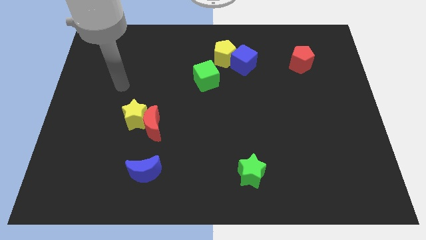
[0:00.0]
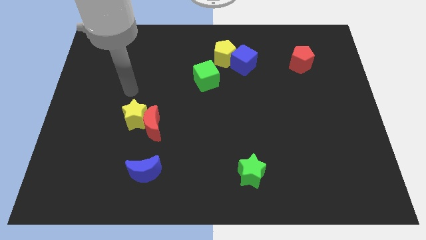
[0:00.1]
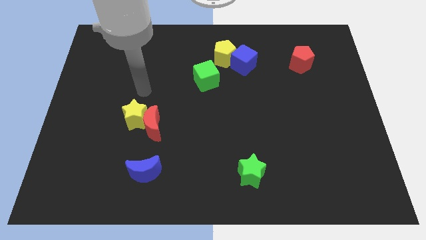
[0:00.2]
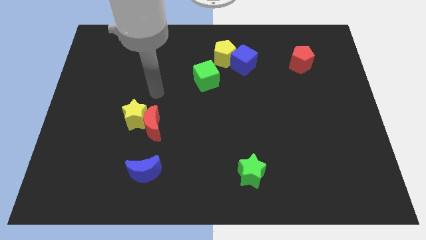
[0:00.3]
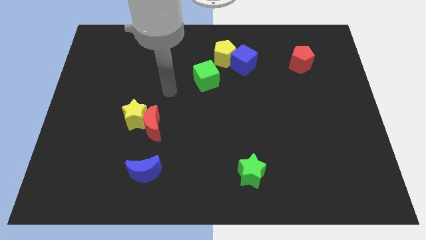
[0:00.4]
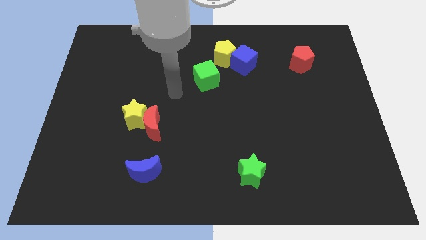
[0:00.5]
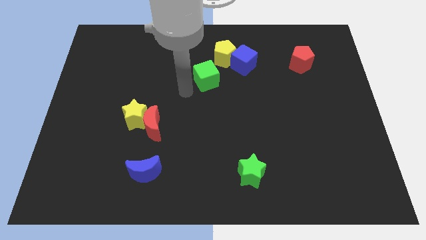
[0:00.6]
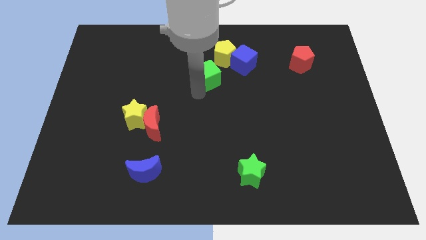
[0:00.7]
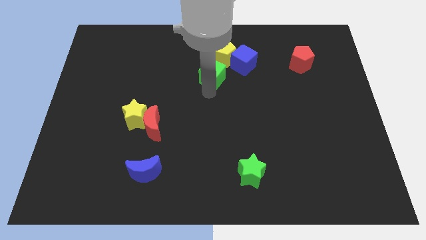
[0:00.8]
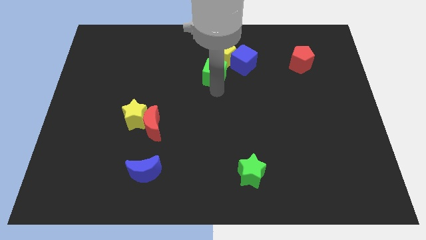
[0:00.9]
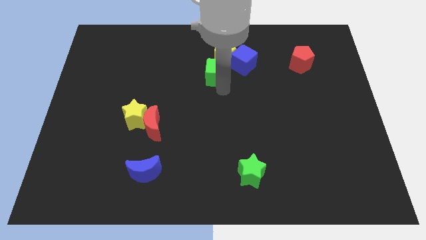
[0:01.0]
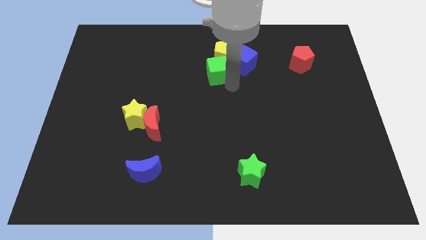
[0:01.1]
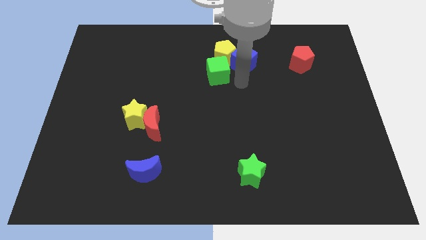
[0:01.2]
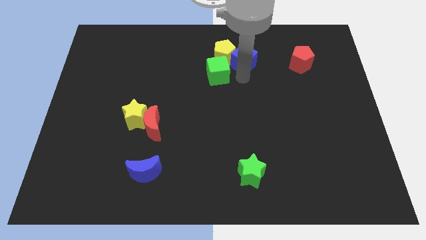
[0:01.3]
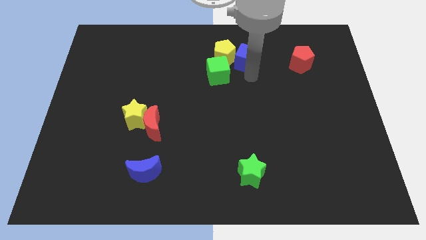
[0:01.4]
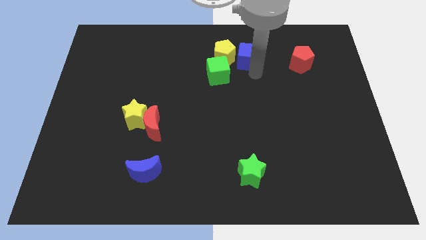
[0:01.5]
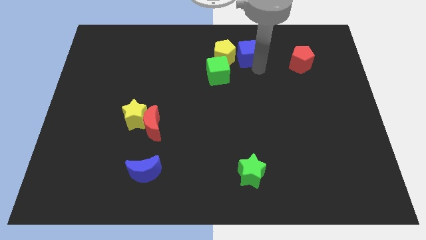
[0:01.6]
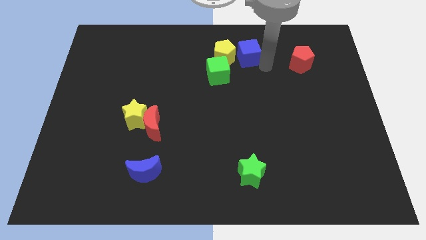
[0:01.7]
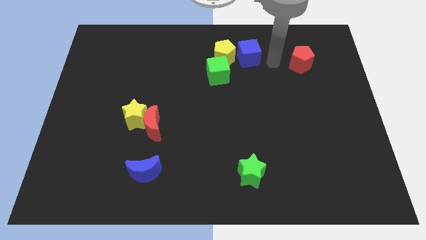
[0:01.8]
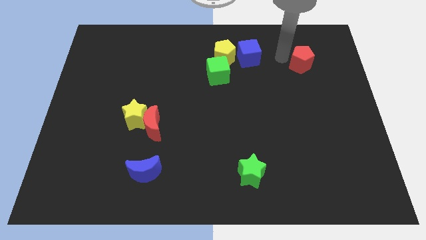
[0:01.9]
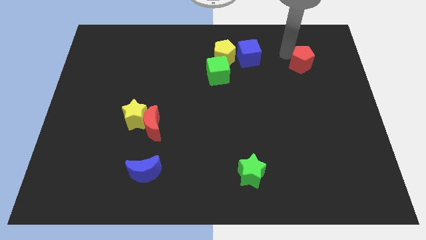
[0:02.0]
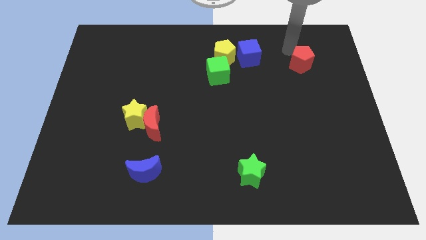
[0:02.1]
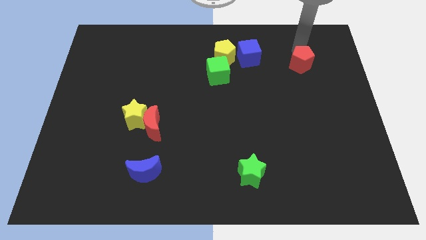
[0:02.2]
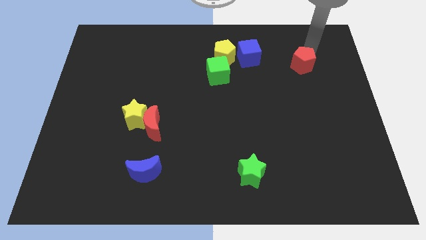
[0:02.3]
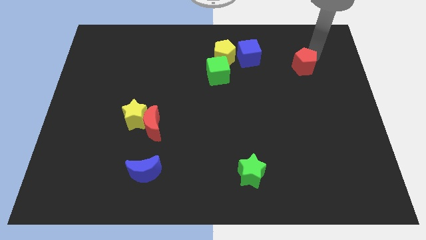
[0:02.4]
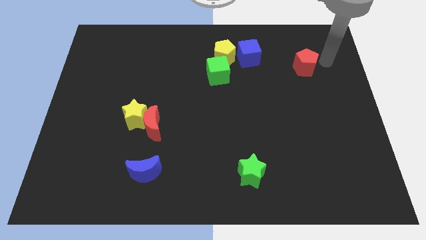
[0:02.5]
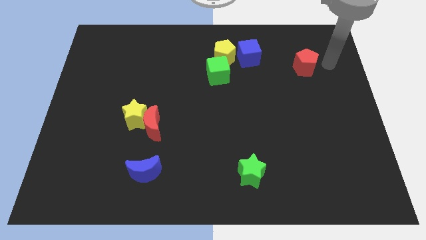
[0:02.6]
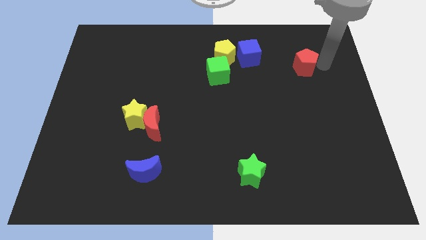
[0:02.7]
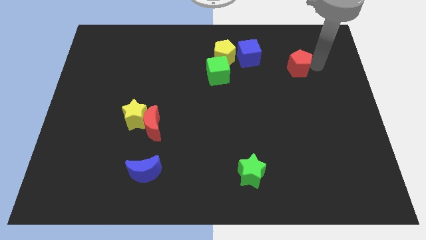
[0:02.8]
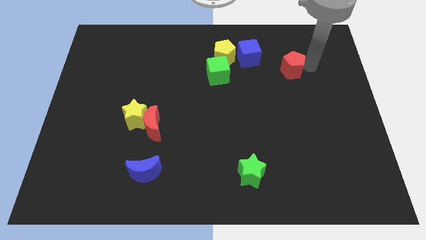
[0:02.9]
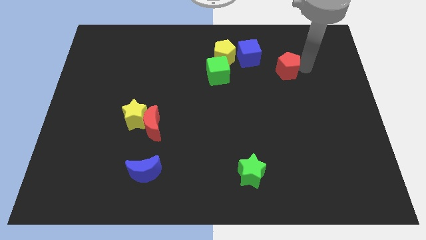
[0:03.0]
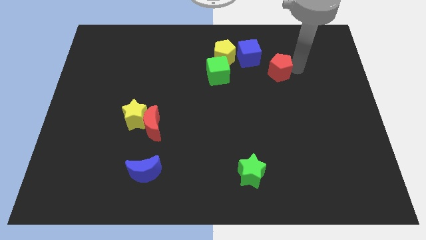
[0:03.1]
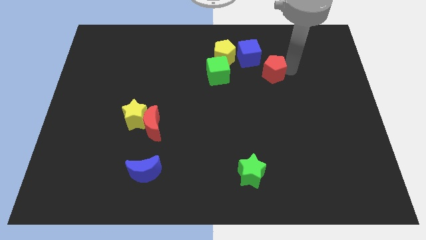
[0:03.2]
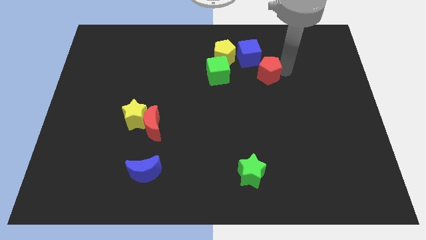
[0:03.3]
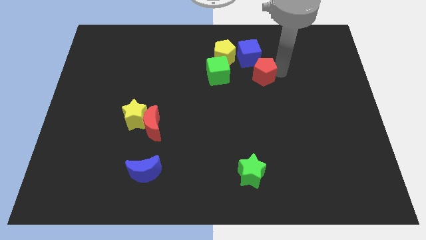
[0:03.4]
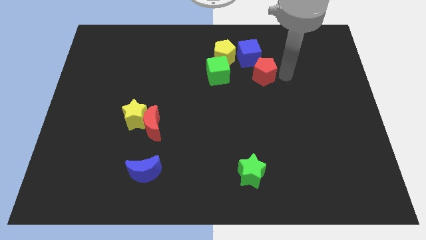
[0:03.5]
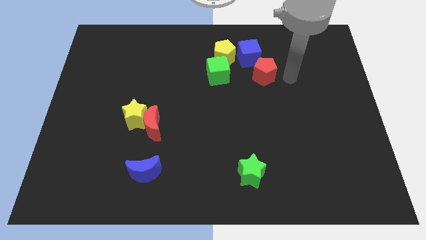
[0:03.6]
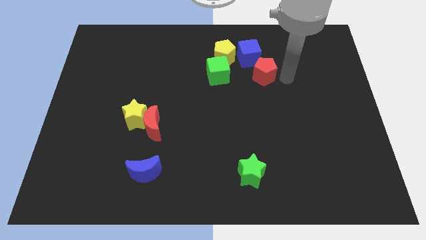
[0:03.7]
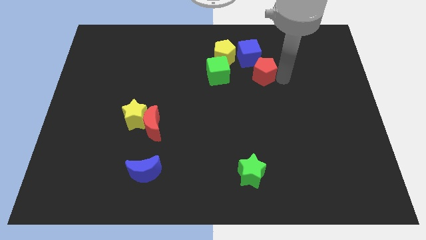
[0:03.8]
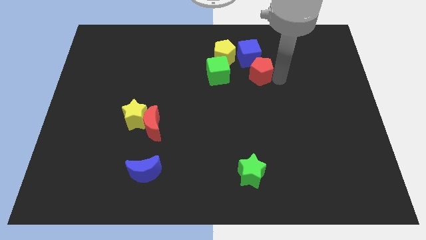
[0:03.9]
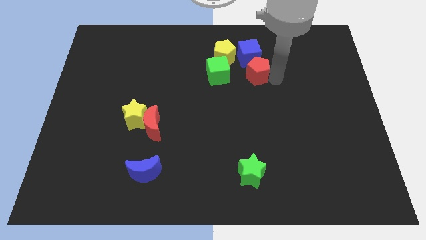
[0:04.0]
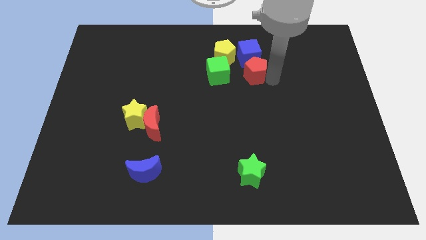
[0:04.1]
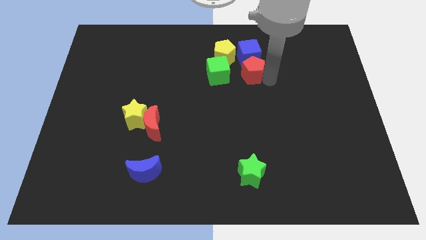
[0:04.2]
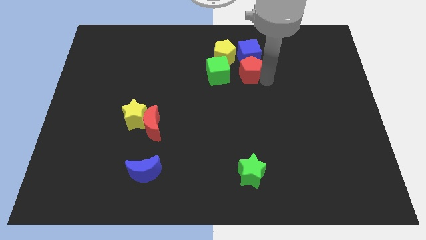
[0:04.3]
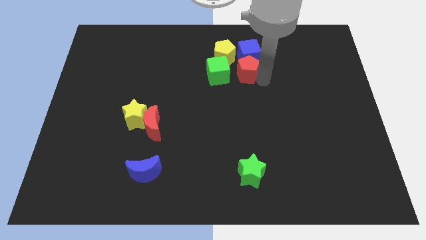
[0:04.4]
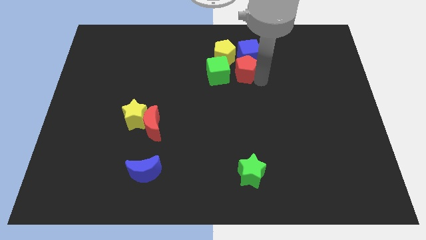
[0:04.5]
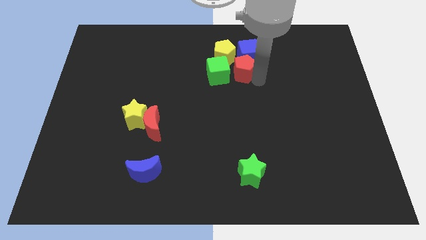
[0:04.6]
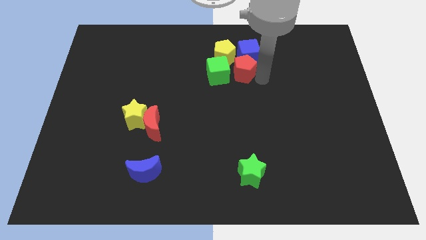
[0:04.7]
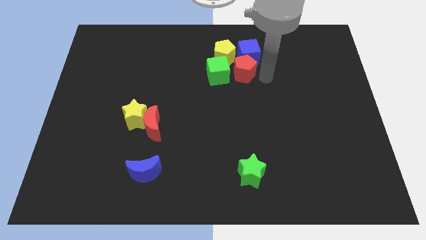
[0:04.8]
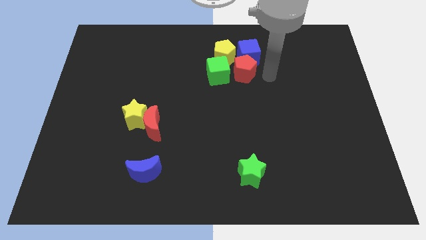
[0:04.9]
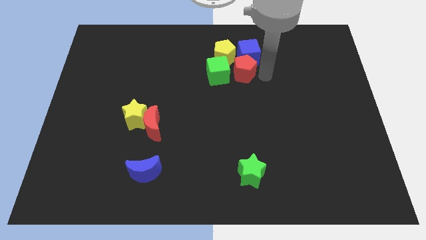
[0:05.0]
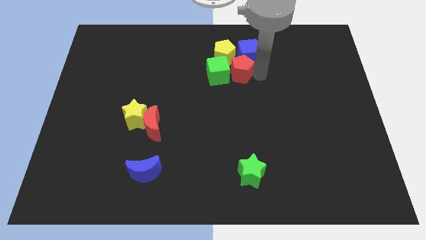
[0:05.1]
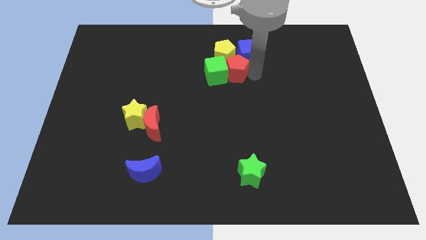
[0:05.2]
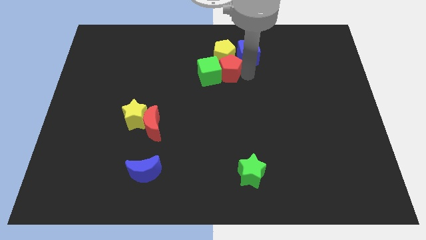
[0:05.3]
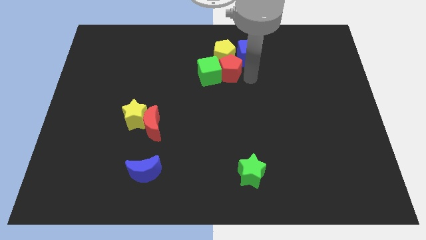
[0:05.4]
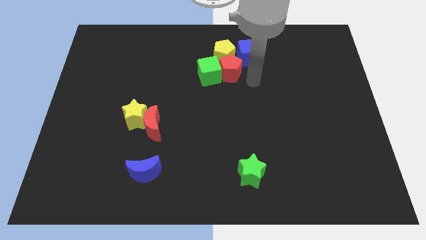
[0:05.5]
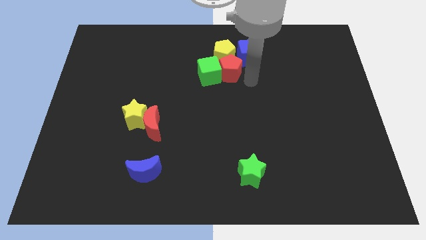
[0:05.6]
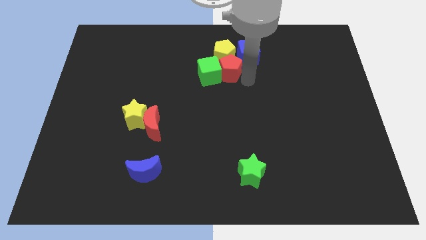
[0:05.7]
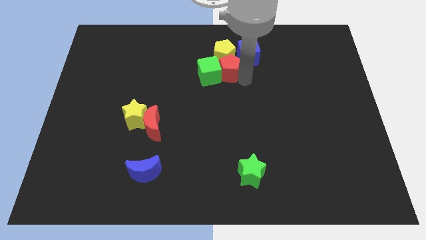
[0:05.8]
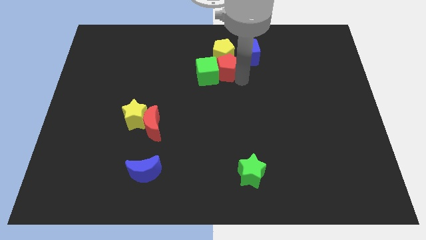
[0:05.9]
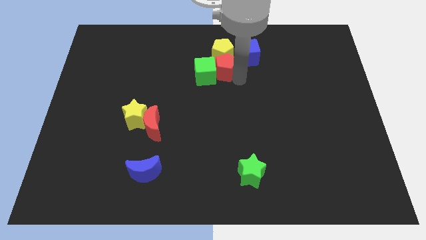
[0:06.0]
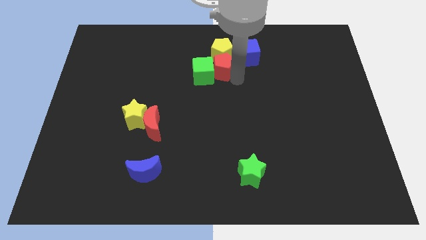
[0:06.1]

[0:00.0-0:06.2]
push the red pentagon left

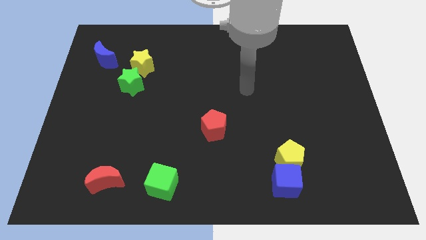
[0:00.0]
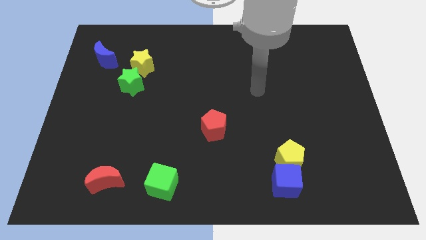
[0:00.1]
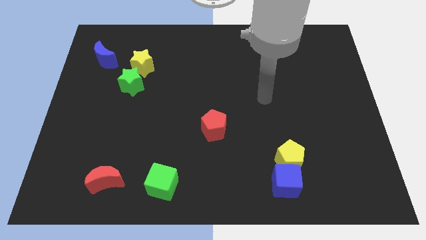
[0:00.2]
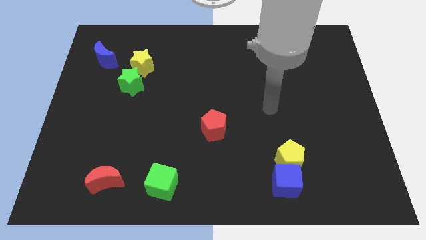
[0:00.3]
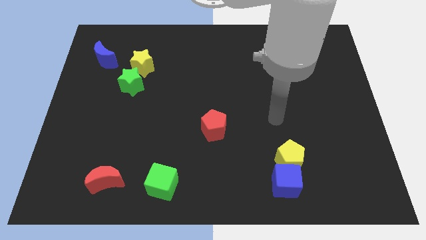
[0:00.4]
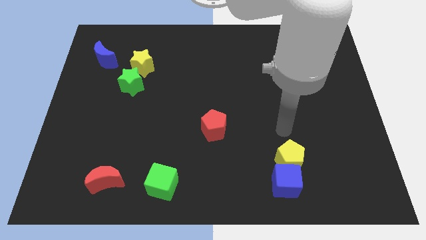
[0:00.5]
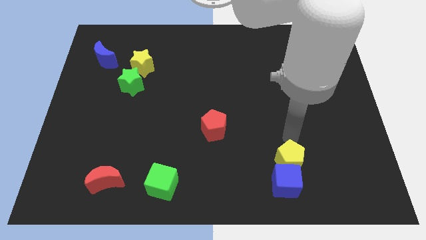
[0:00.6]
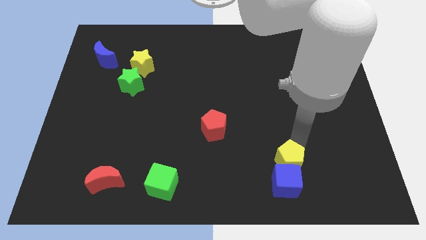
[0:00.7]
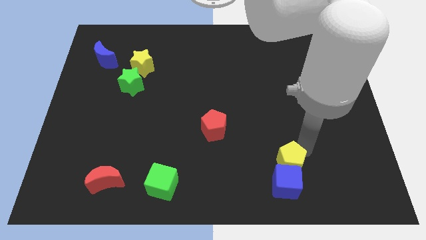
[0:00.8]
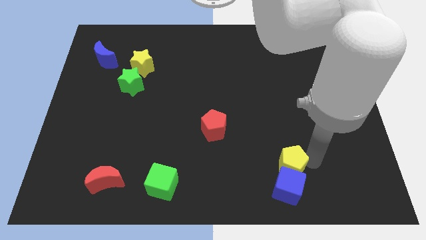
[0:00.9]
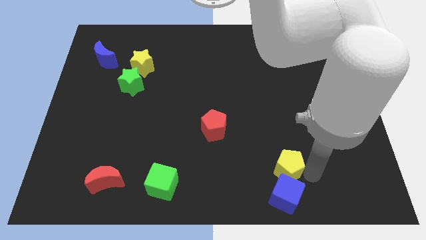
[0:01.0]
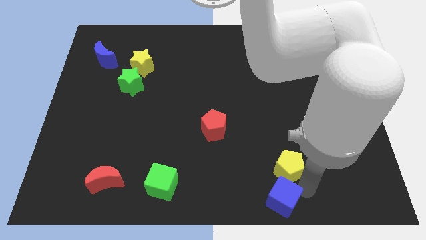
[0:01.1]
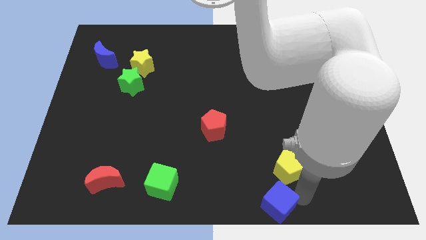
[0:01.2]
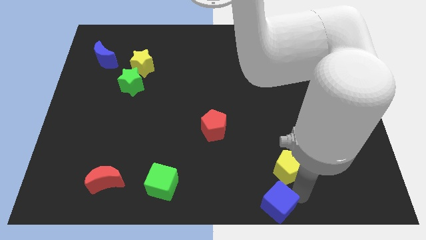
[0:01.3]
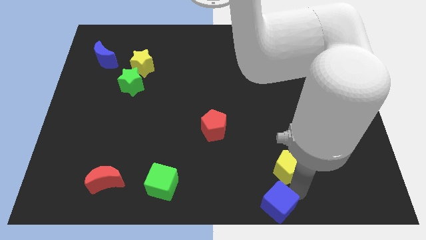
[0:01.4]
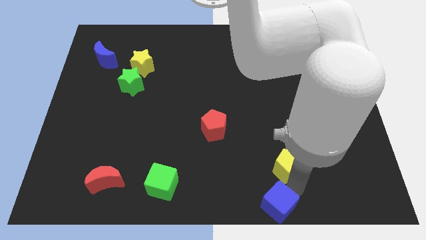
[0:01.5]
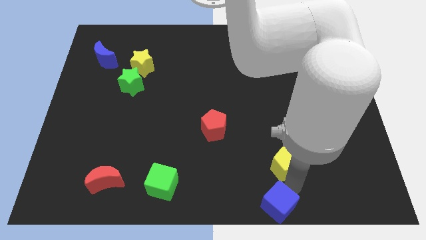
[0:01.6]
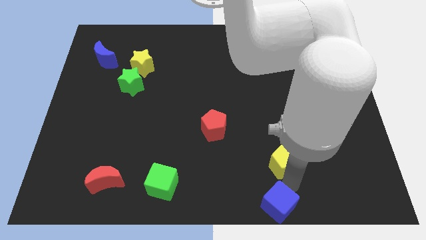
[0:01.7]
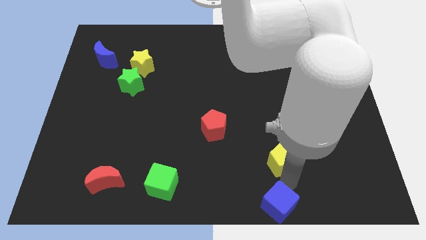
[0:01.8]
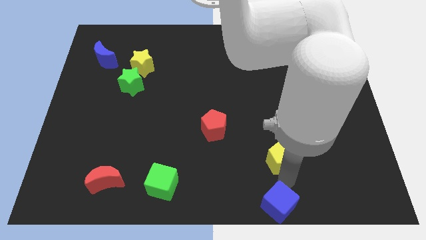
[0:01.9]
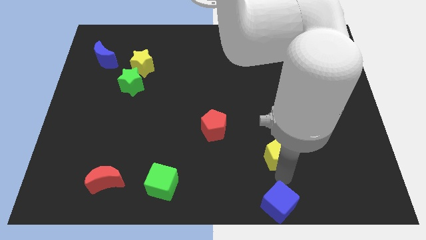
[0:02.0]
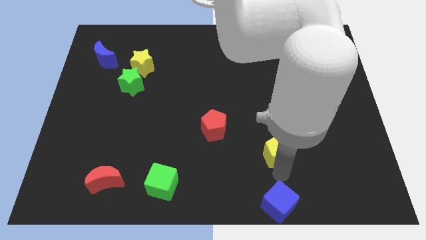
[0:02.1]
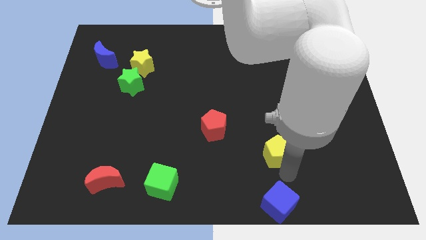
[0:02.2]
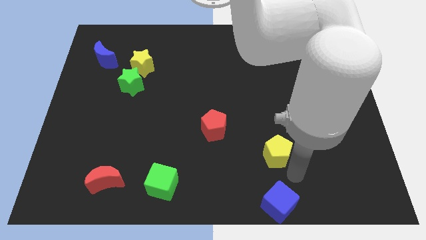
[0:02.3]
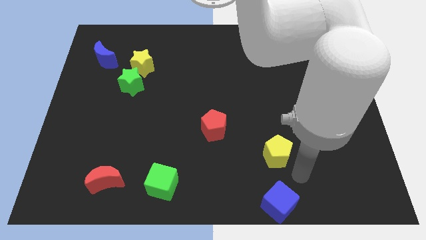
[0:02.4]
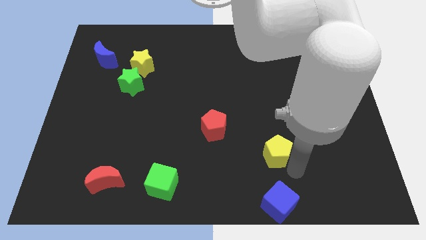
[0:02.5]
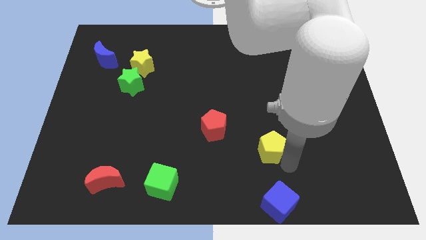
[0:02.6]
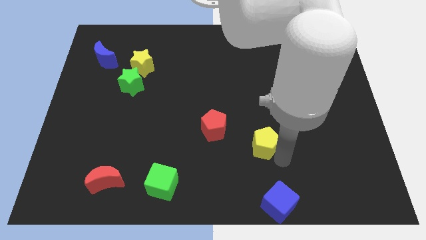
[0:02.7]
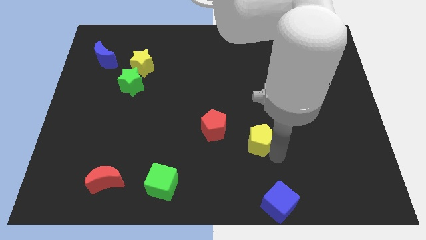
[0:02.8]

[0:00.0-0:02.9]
slightly slide the yellow pentagon up and then left
